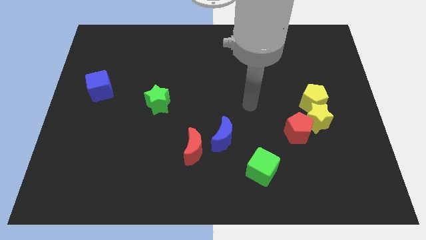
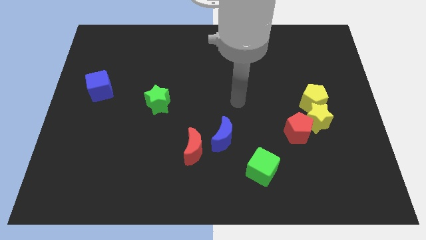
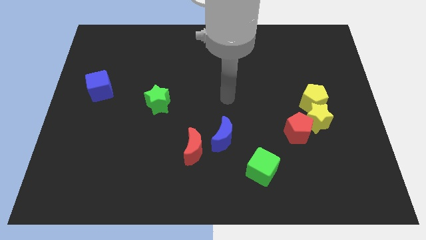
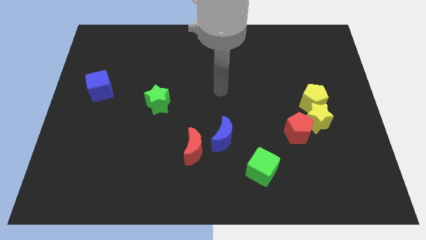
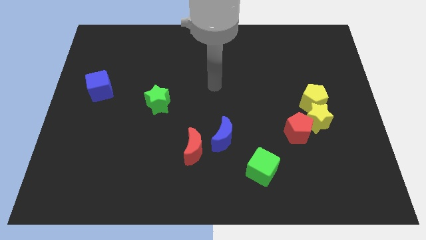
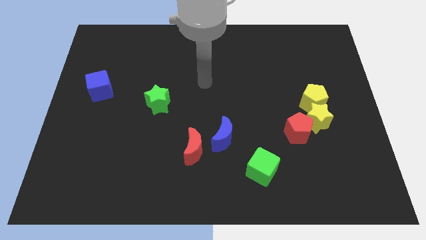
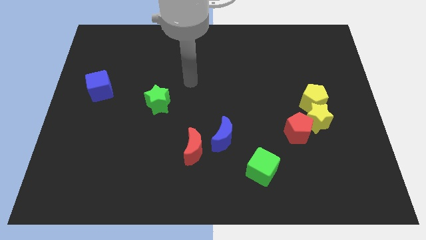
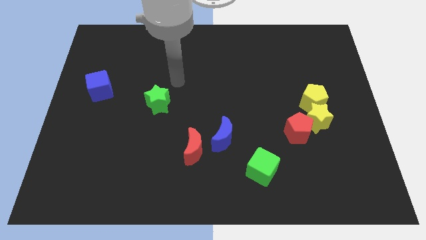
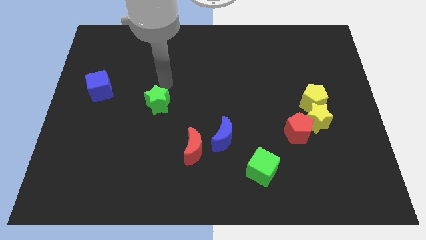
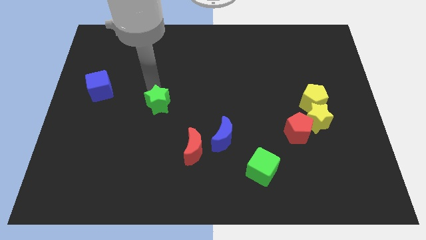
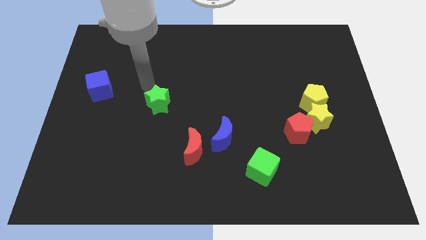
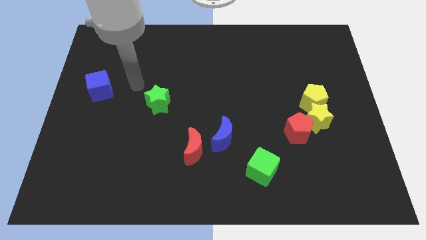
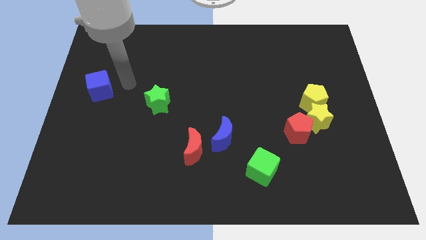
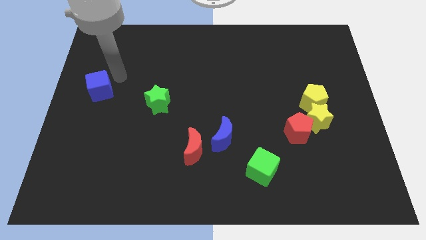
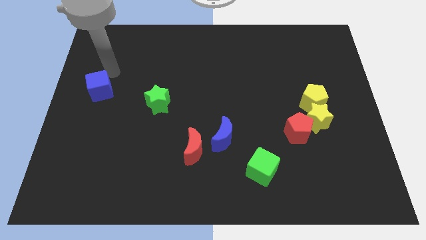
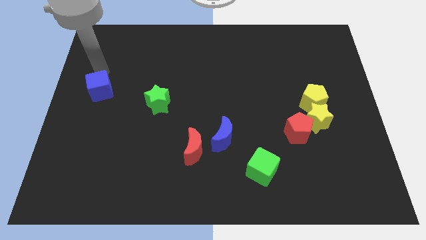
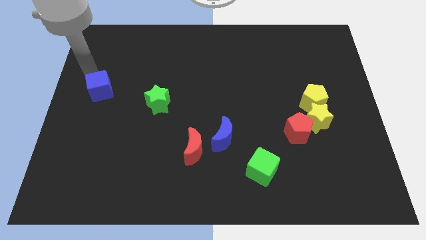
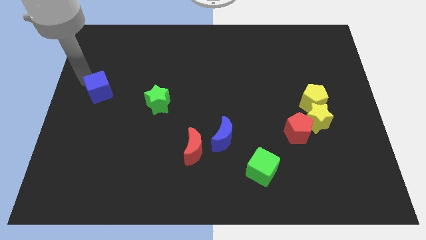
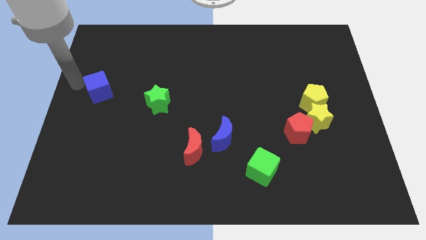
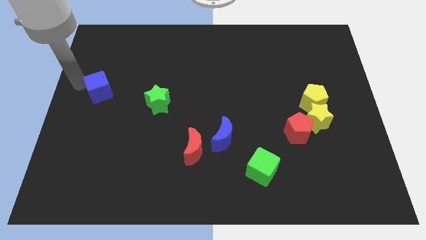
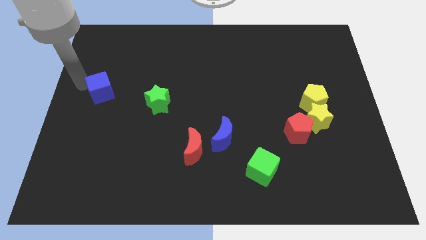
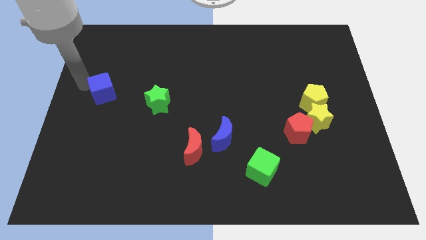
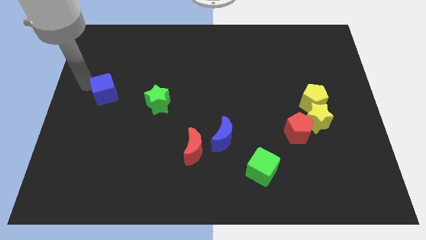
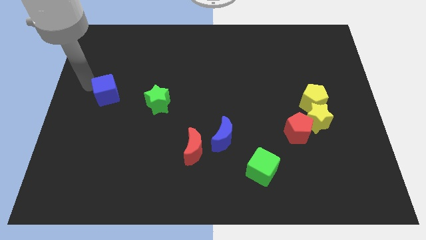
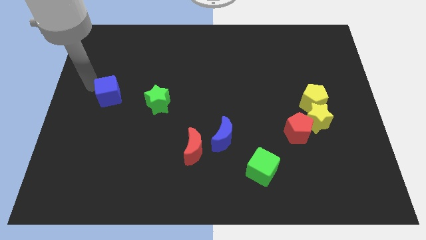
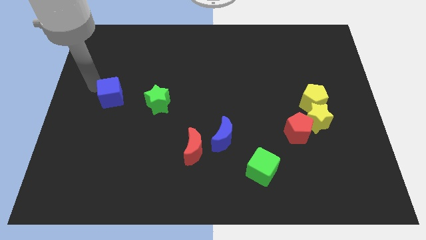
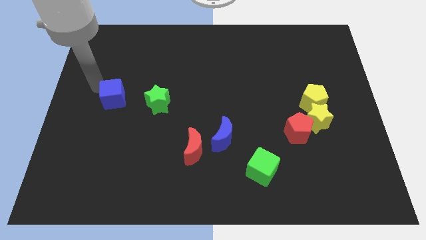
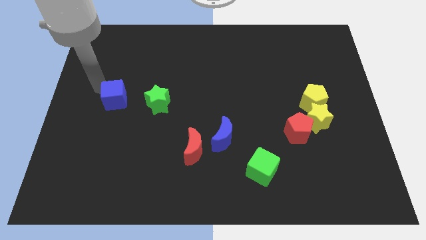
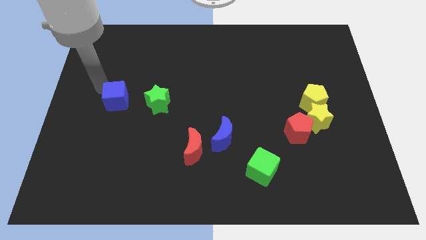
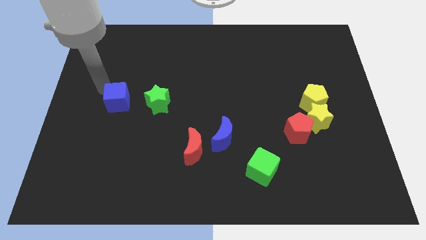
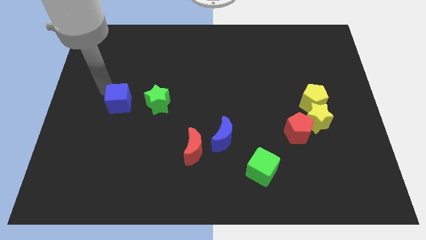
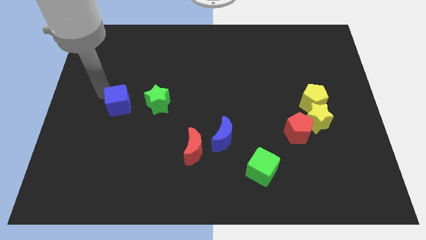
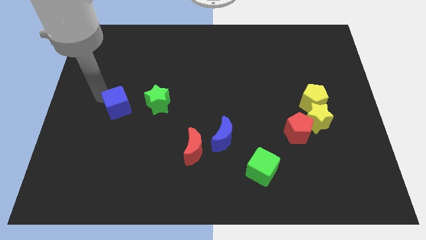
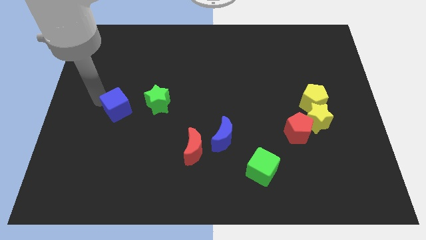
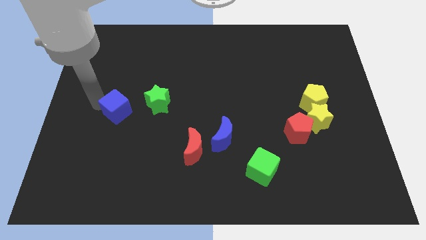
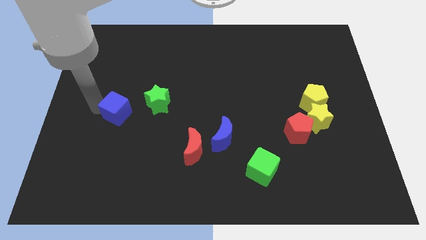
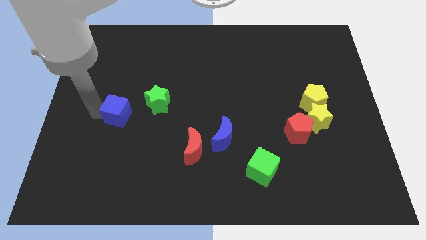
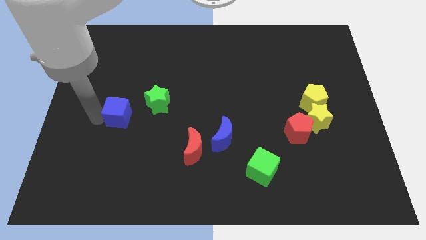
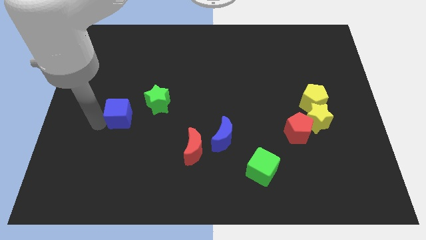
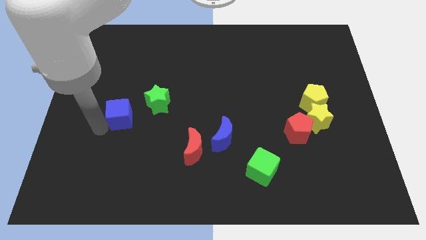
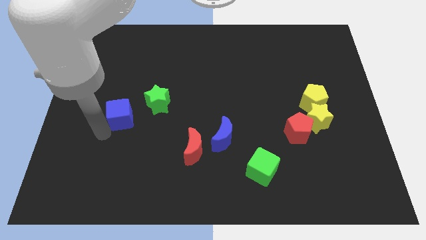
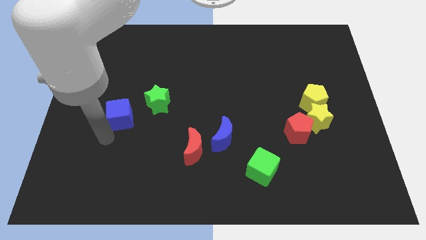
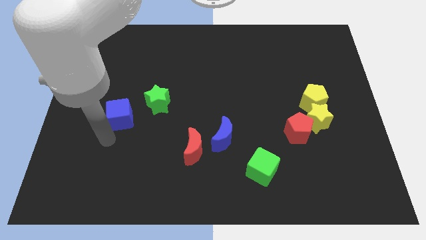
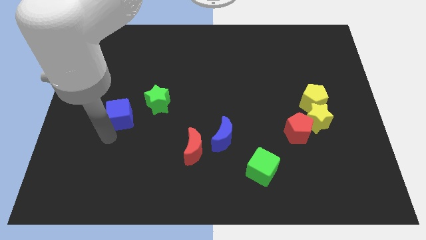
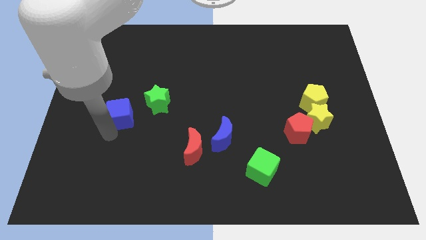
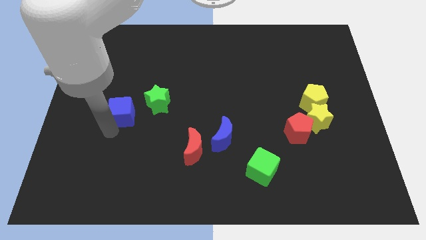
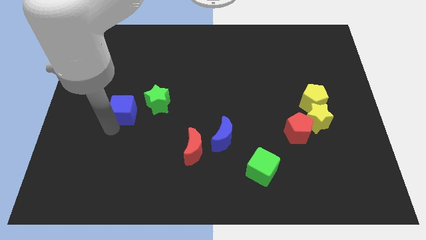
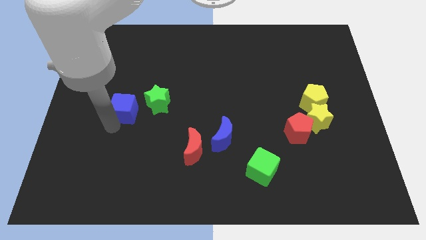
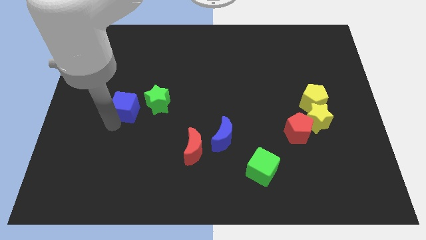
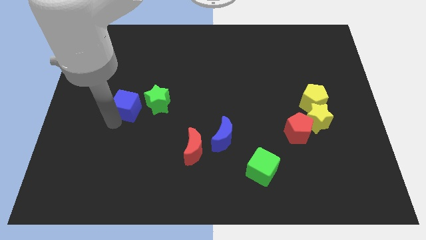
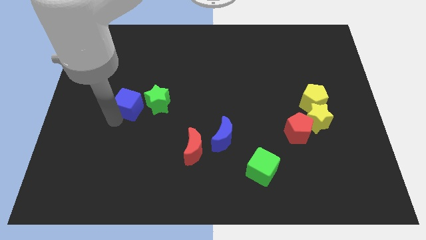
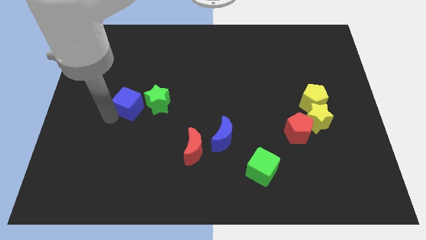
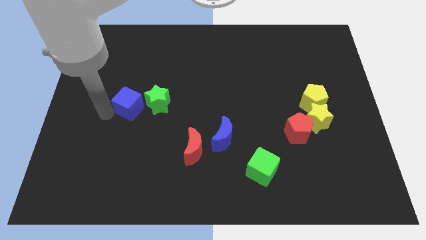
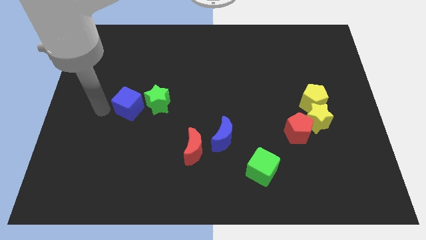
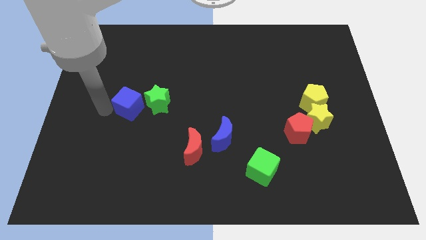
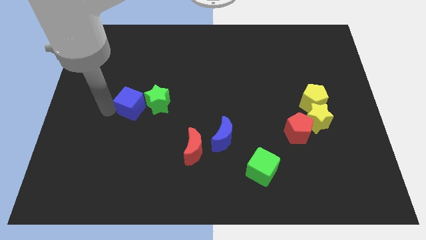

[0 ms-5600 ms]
move the blue cube next to the green star

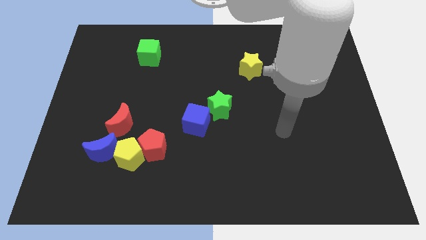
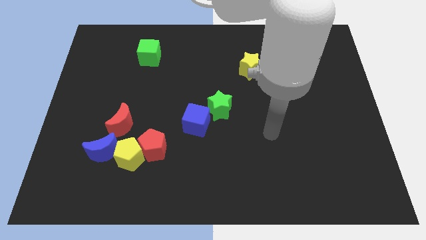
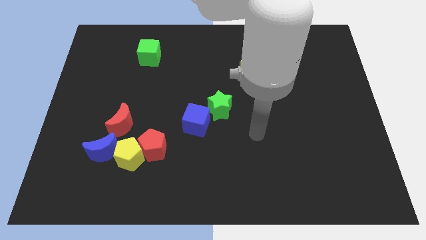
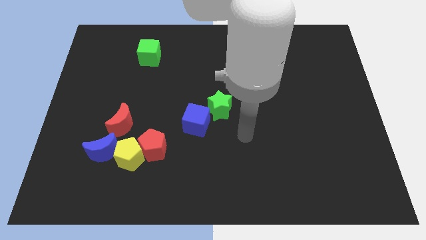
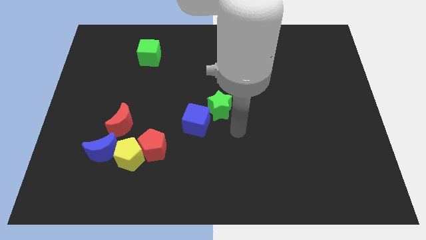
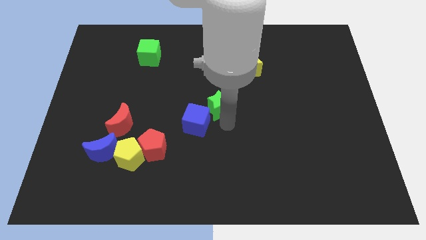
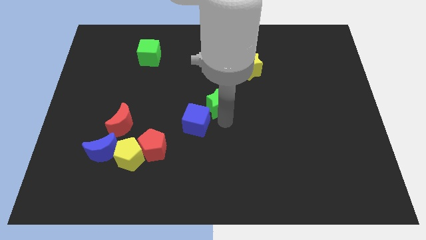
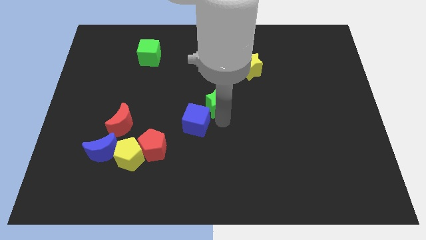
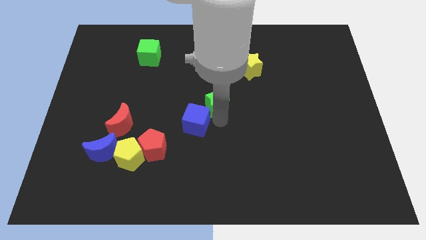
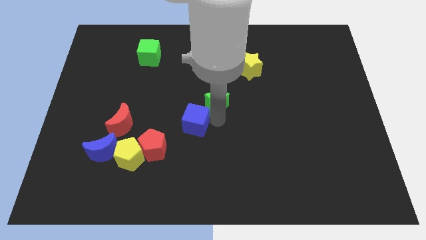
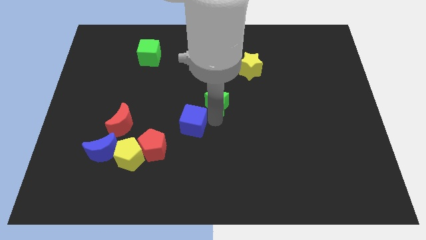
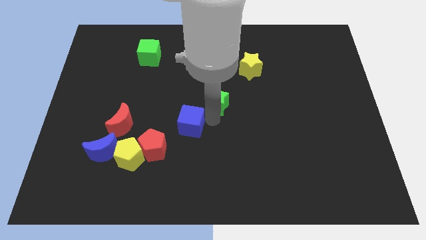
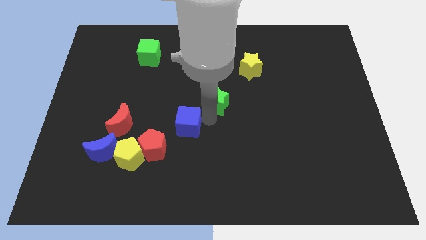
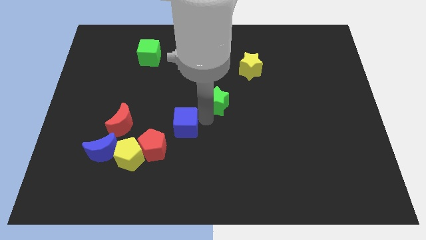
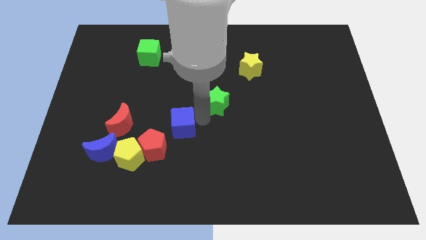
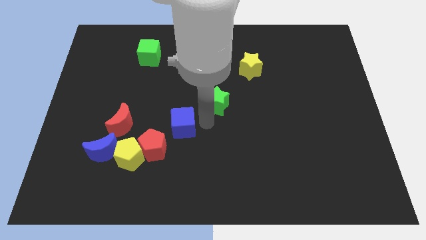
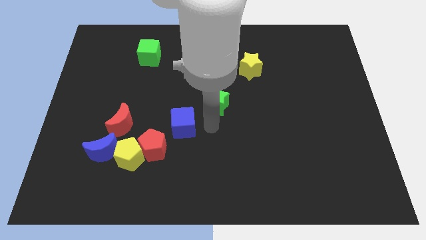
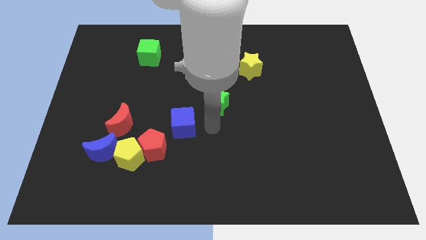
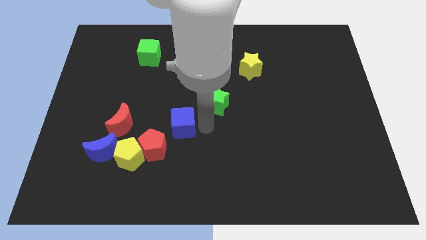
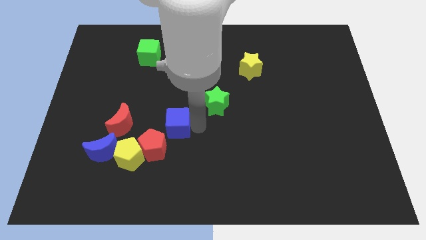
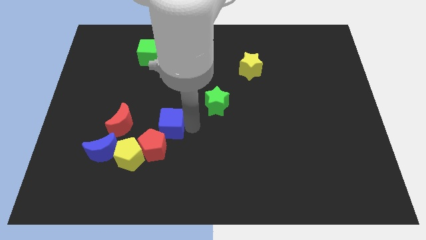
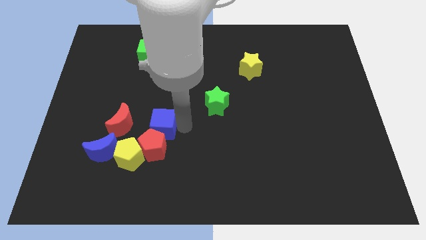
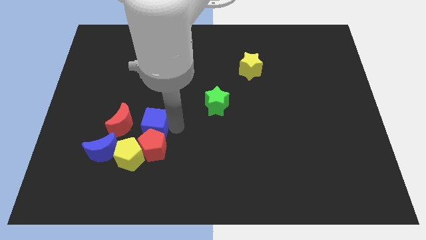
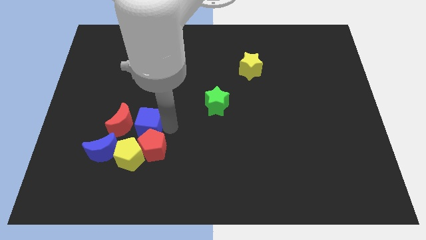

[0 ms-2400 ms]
slide the blue cube next to the red moon
